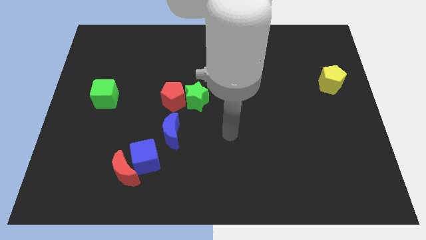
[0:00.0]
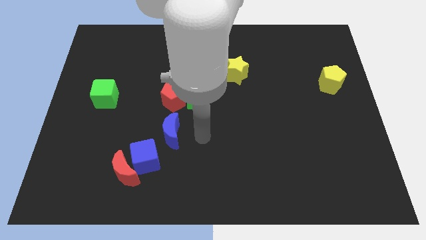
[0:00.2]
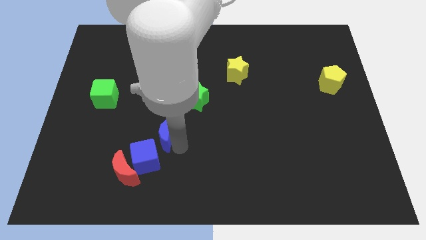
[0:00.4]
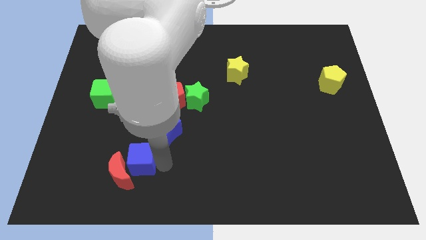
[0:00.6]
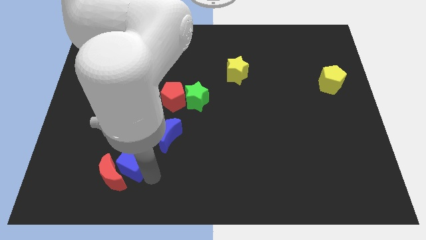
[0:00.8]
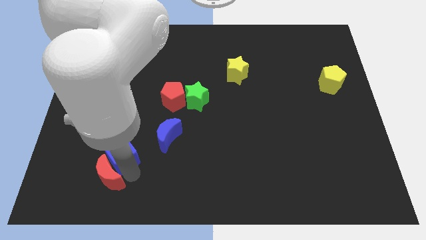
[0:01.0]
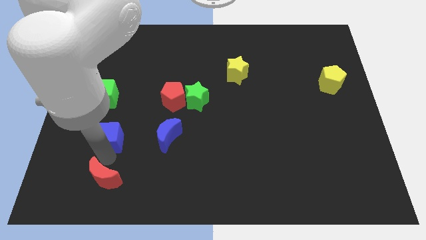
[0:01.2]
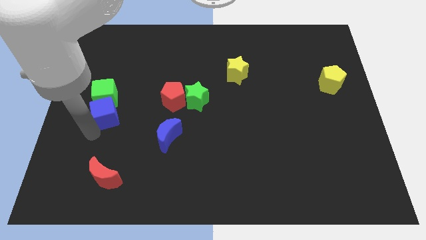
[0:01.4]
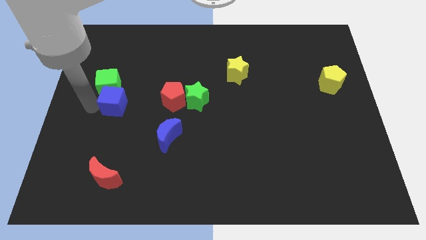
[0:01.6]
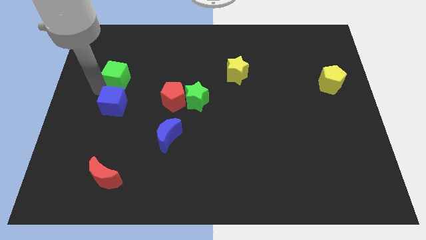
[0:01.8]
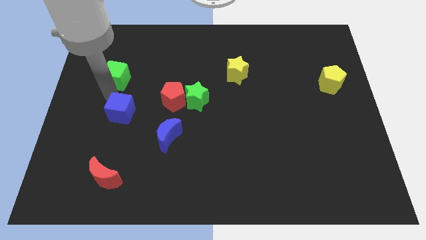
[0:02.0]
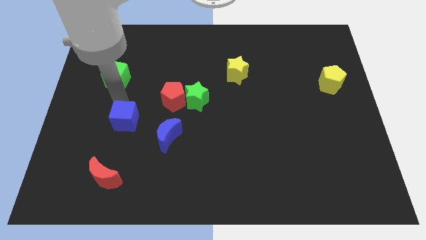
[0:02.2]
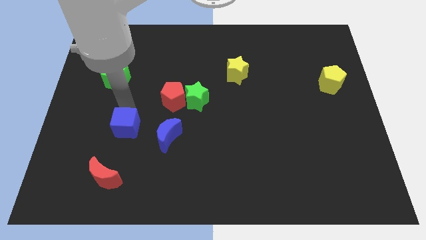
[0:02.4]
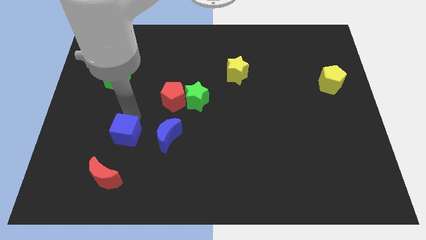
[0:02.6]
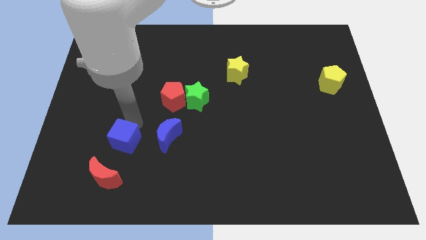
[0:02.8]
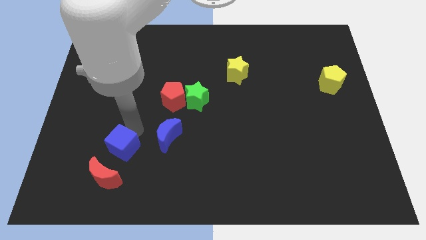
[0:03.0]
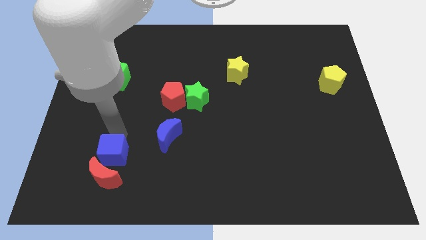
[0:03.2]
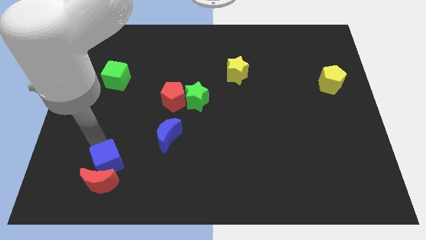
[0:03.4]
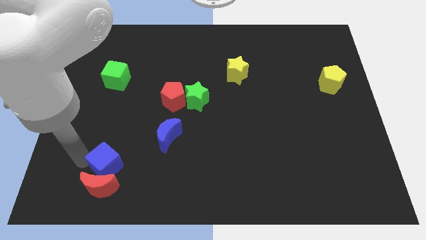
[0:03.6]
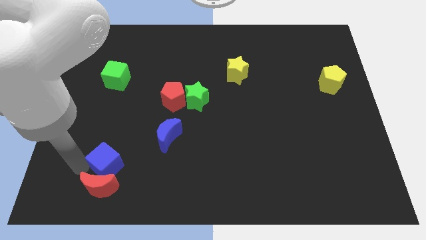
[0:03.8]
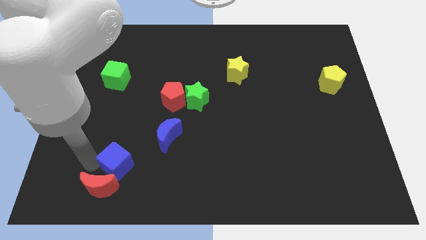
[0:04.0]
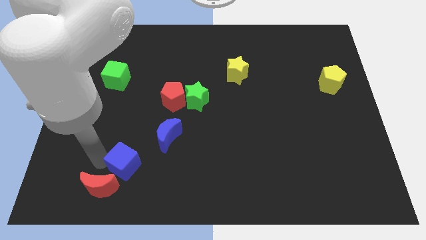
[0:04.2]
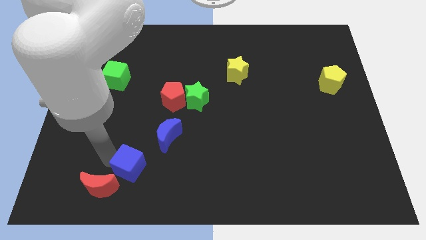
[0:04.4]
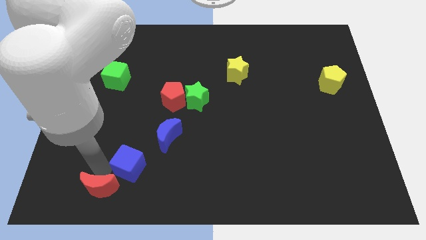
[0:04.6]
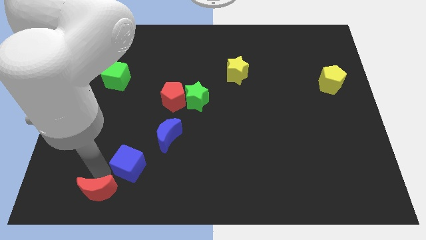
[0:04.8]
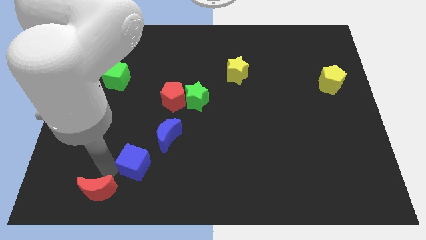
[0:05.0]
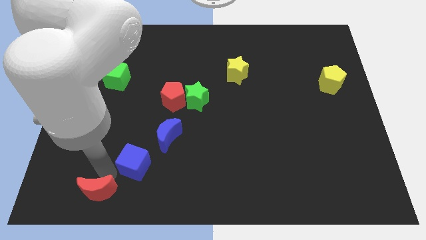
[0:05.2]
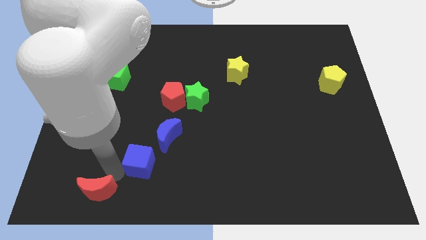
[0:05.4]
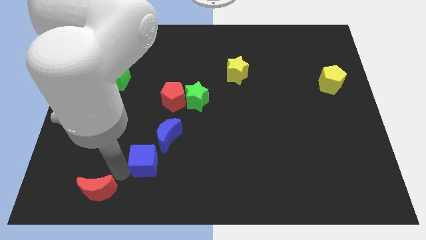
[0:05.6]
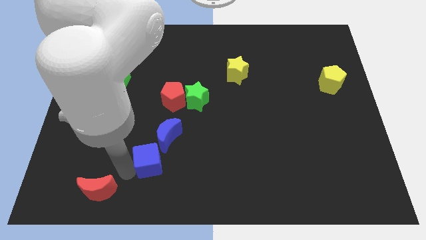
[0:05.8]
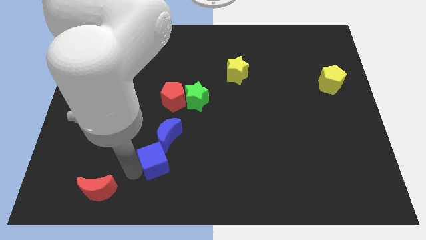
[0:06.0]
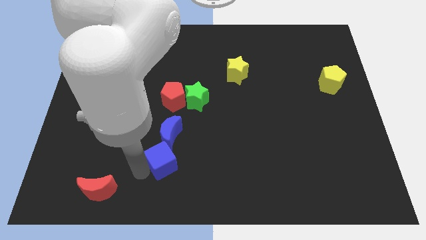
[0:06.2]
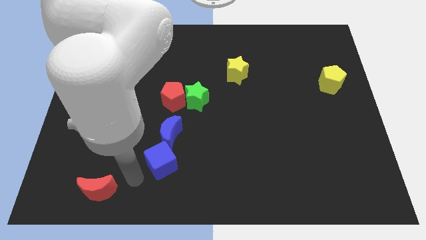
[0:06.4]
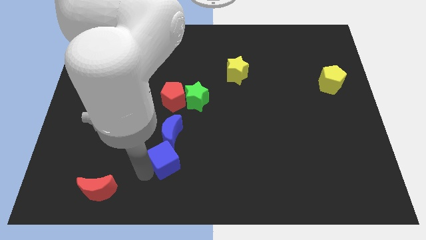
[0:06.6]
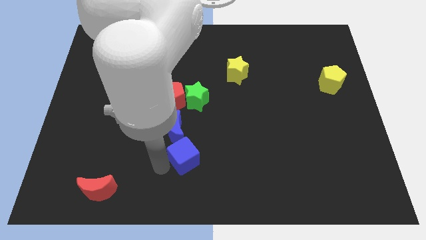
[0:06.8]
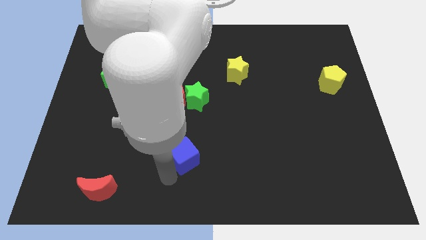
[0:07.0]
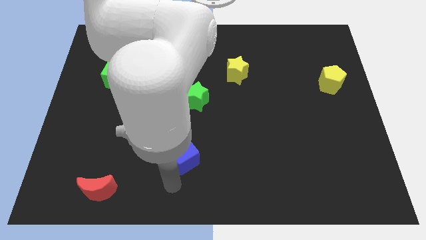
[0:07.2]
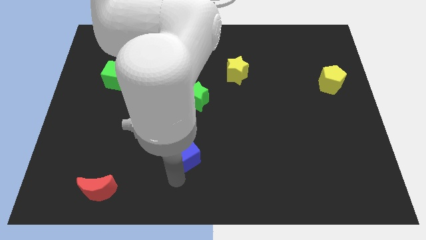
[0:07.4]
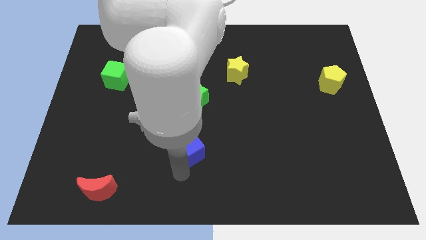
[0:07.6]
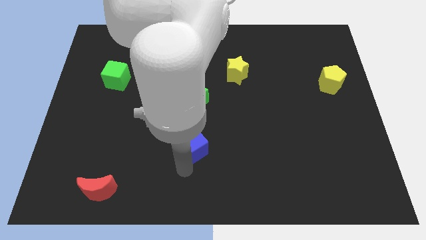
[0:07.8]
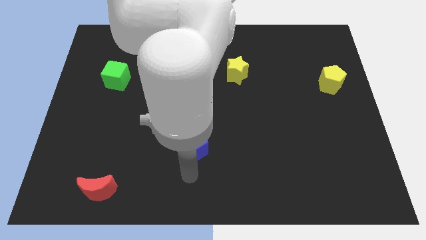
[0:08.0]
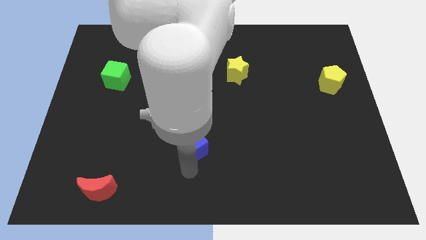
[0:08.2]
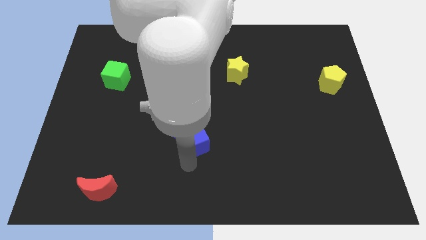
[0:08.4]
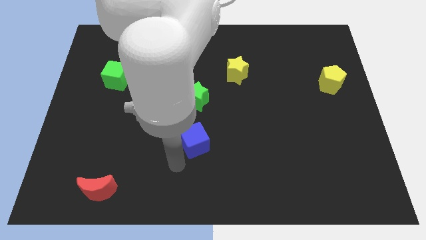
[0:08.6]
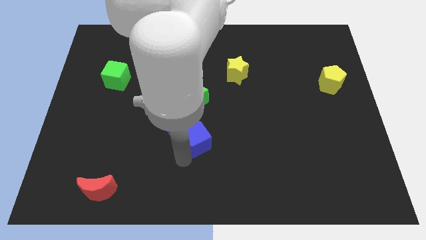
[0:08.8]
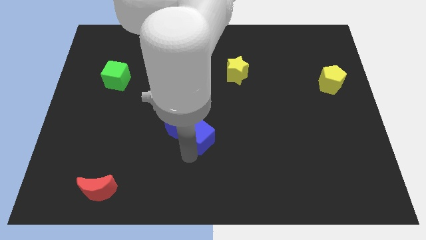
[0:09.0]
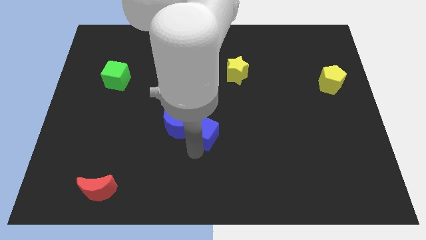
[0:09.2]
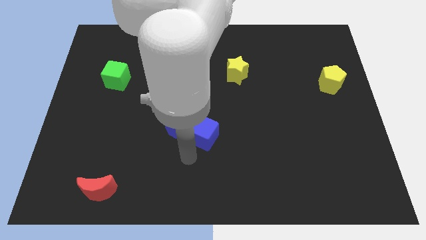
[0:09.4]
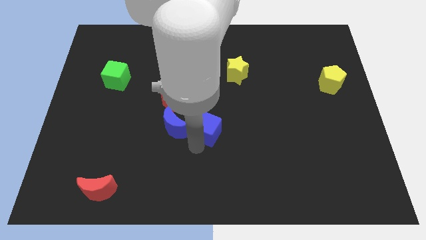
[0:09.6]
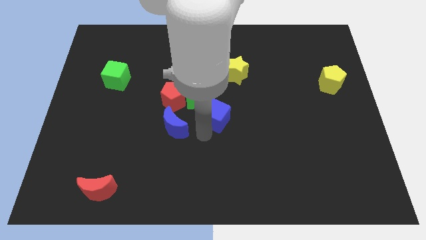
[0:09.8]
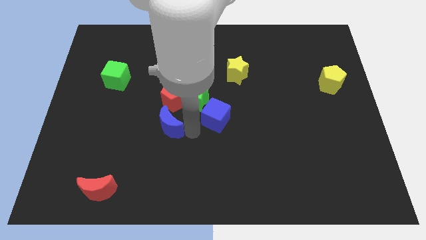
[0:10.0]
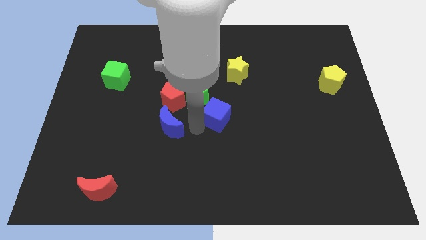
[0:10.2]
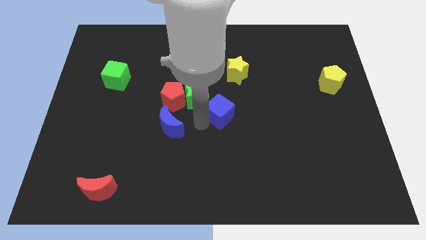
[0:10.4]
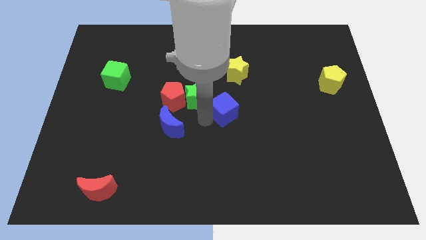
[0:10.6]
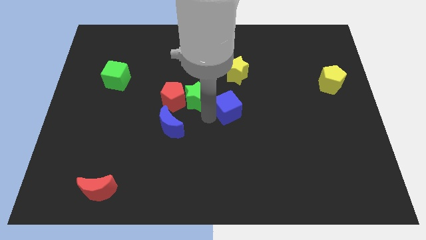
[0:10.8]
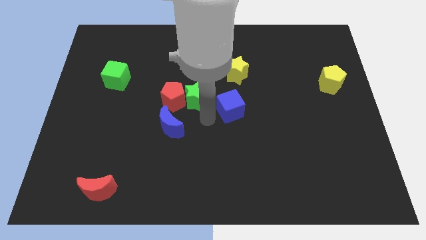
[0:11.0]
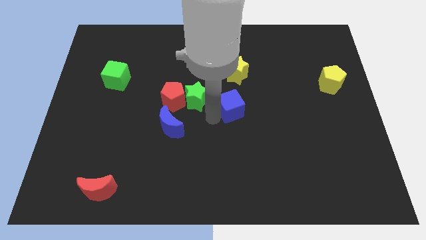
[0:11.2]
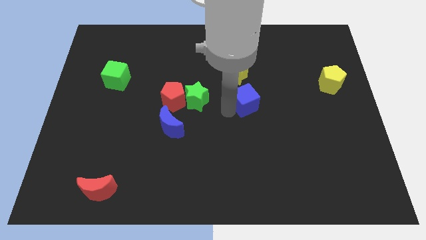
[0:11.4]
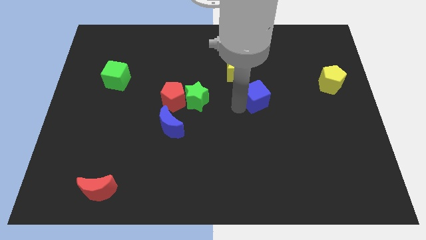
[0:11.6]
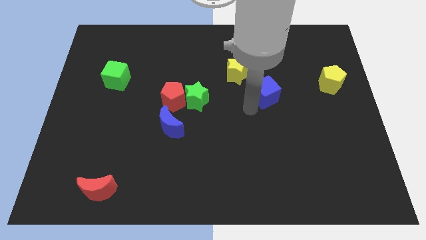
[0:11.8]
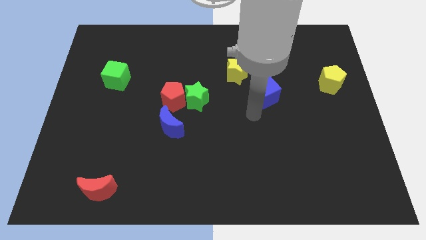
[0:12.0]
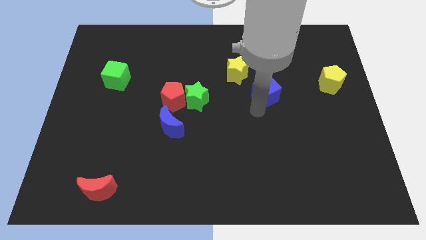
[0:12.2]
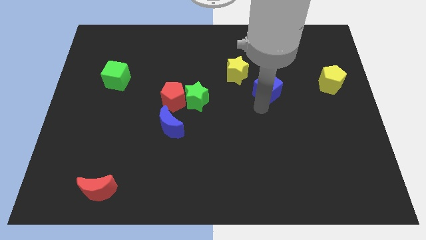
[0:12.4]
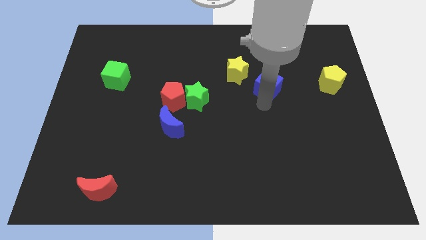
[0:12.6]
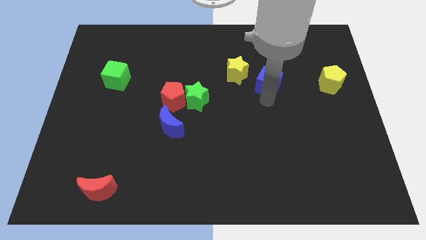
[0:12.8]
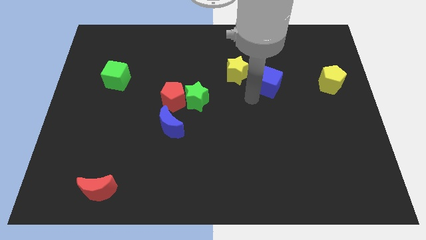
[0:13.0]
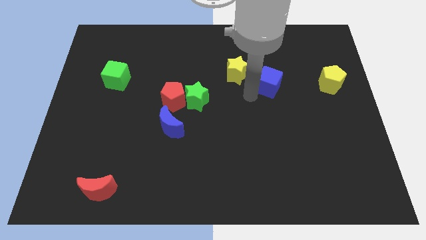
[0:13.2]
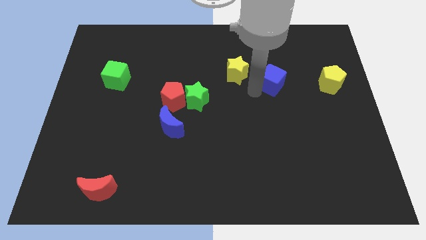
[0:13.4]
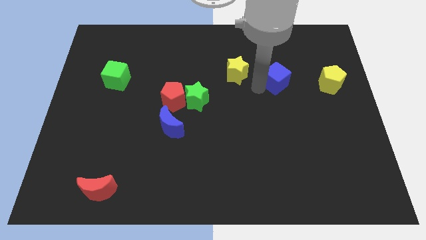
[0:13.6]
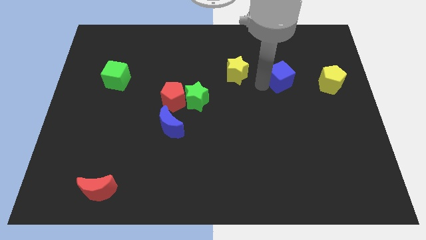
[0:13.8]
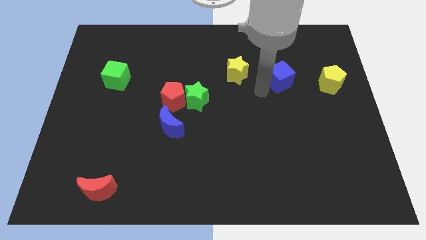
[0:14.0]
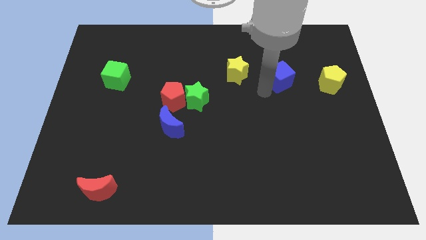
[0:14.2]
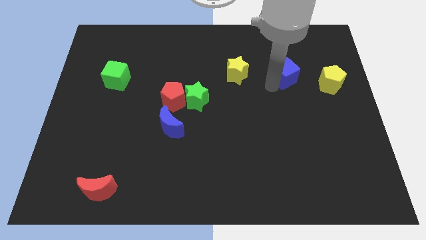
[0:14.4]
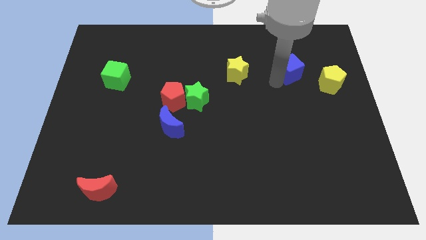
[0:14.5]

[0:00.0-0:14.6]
move the blue cube to the top left of the yellow pentagon

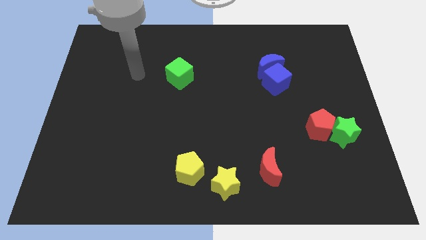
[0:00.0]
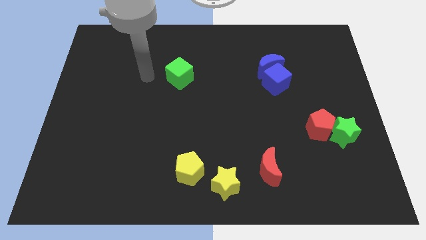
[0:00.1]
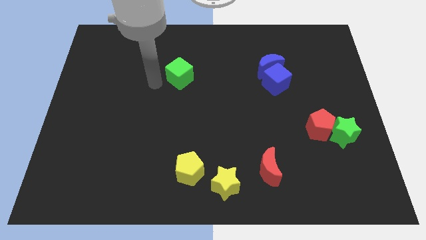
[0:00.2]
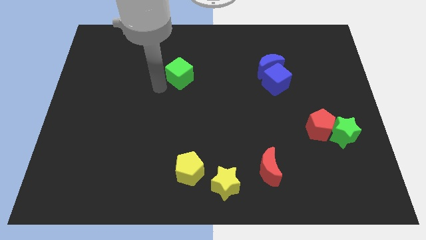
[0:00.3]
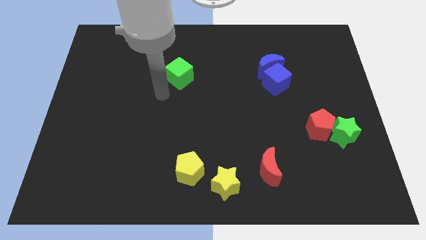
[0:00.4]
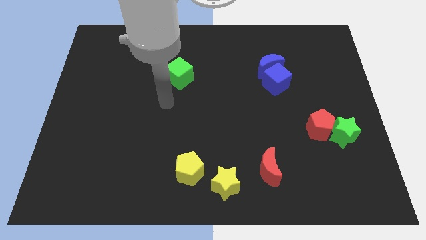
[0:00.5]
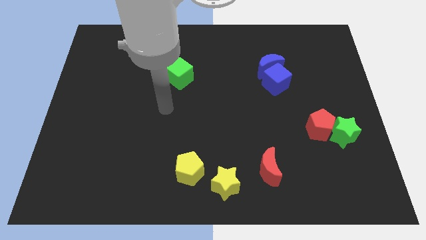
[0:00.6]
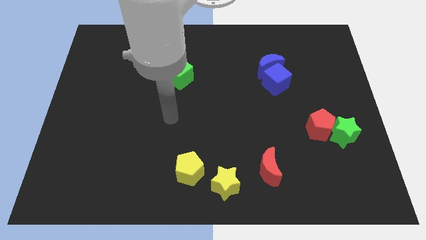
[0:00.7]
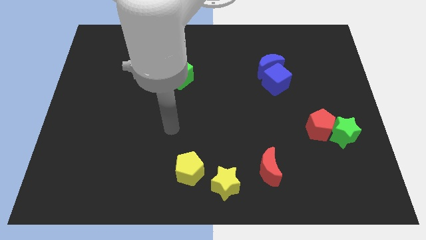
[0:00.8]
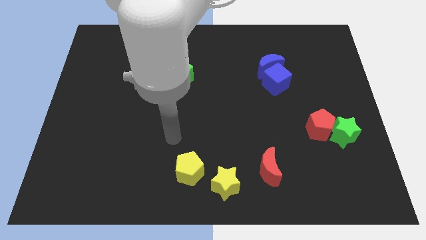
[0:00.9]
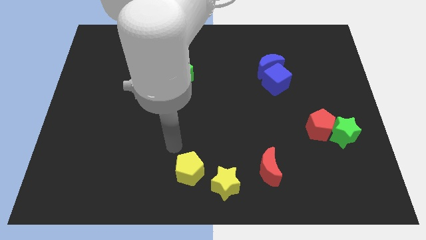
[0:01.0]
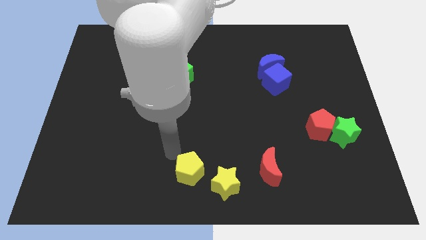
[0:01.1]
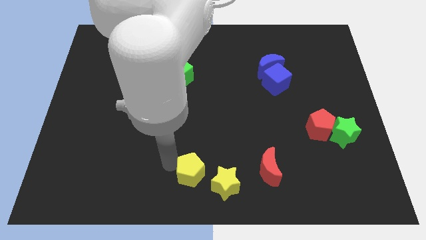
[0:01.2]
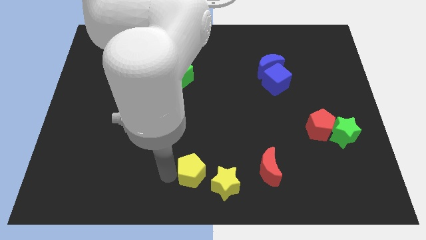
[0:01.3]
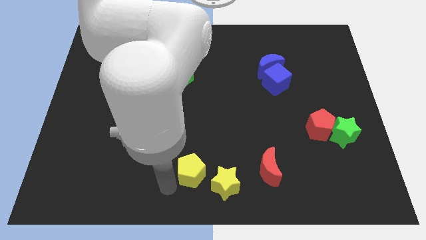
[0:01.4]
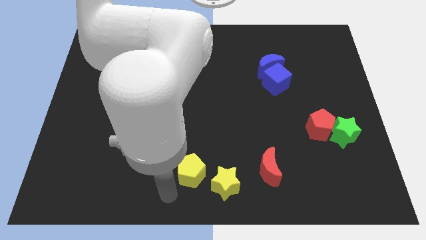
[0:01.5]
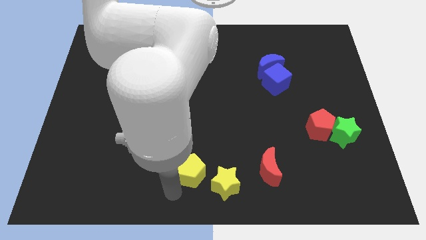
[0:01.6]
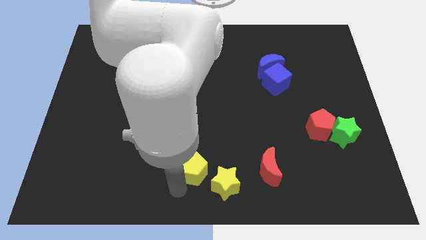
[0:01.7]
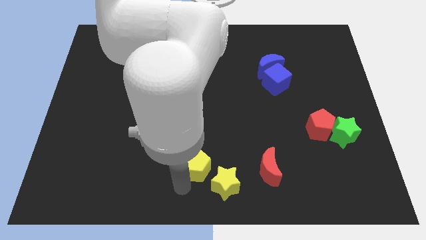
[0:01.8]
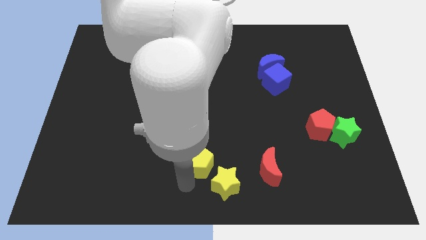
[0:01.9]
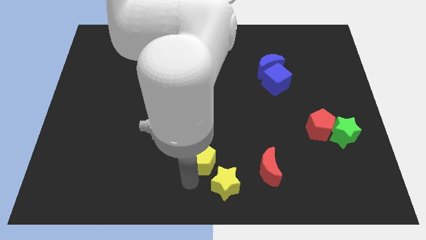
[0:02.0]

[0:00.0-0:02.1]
put the yellow pentagon to the top of the yellow star
